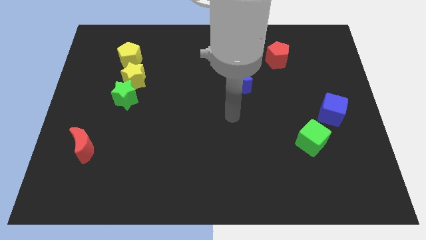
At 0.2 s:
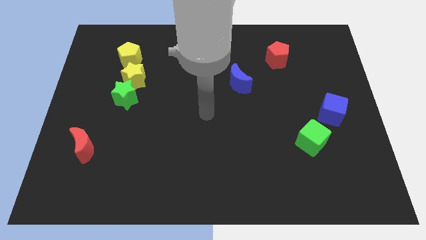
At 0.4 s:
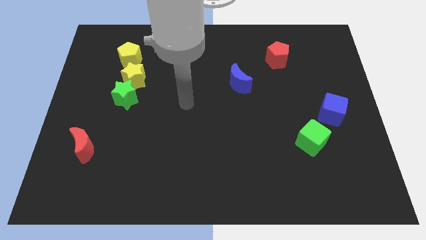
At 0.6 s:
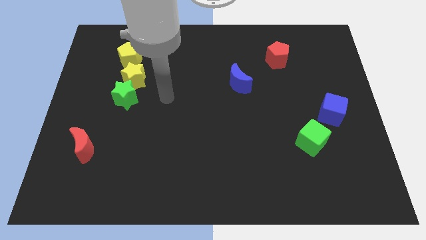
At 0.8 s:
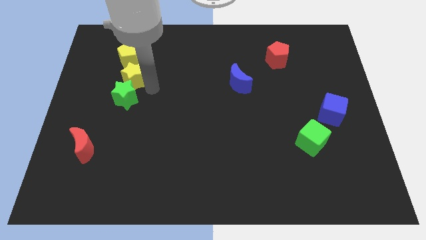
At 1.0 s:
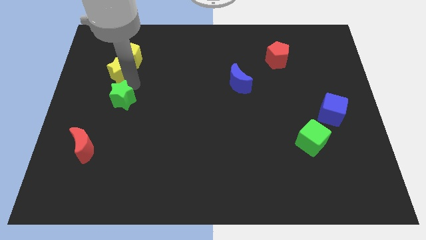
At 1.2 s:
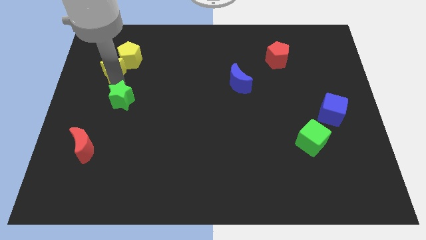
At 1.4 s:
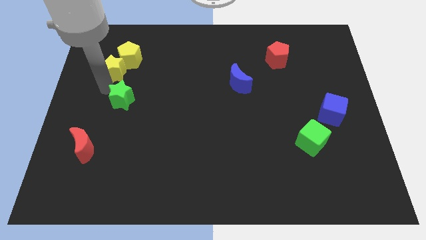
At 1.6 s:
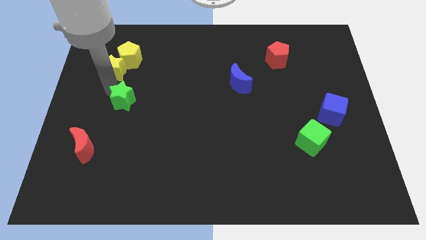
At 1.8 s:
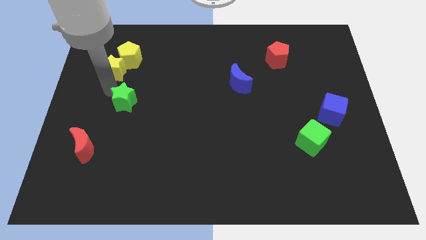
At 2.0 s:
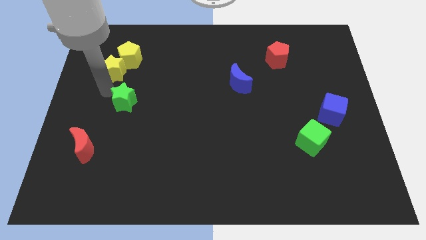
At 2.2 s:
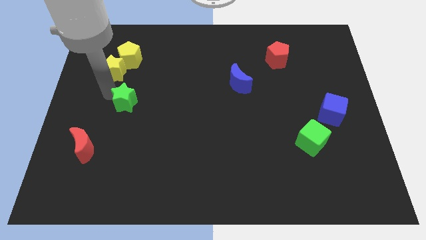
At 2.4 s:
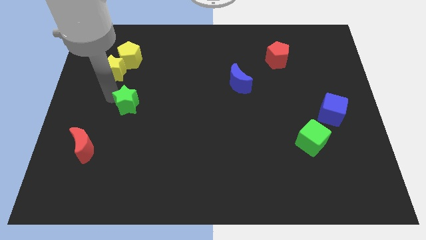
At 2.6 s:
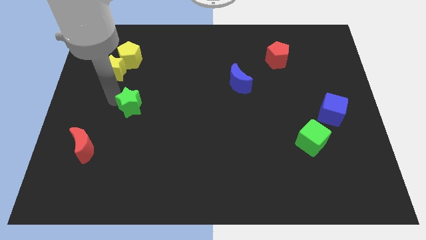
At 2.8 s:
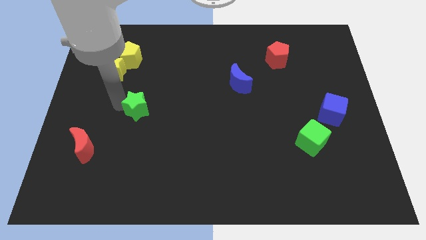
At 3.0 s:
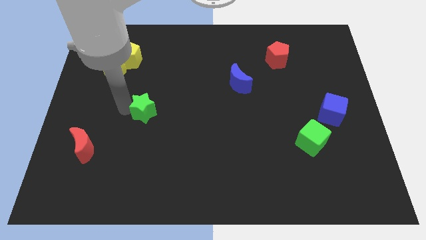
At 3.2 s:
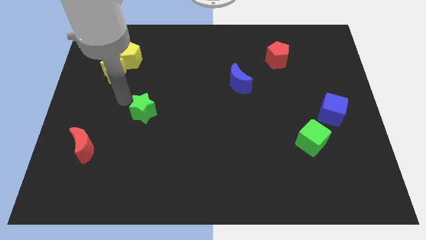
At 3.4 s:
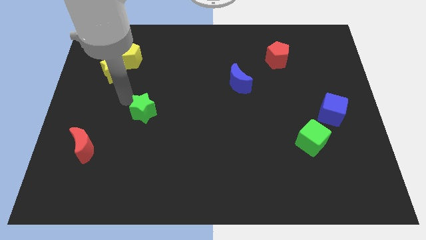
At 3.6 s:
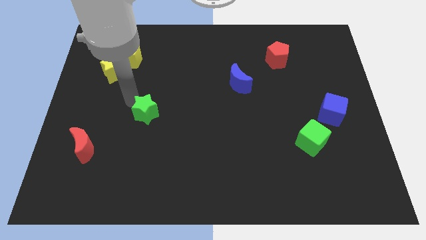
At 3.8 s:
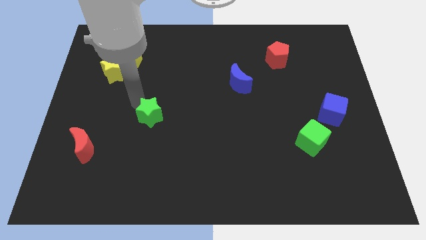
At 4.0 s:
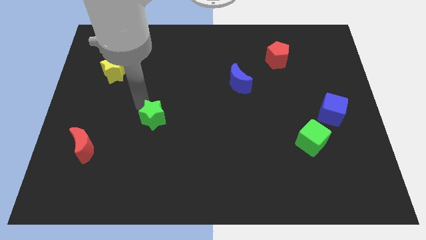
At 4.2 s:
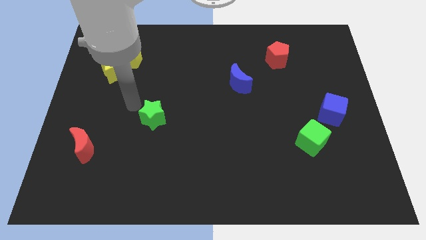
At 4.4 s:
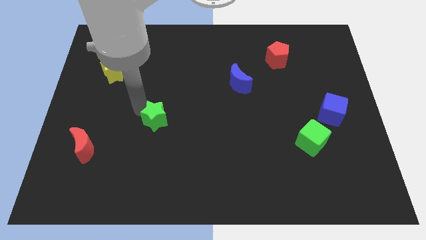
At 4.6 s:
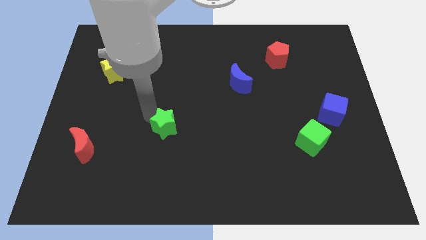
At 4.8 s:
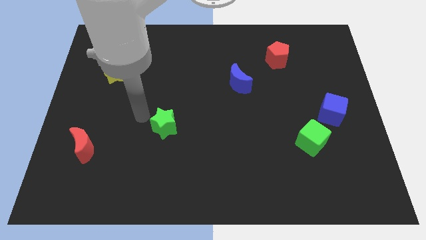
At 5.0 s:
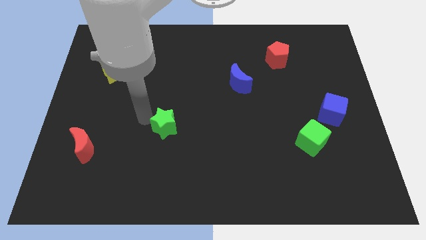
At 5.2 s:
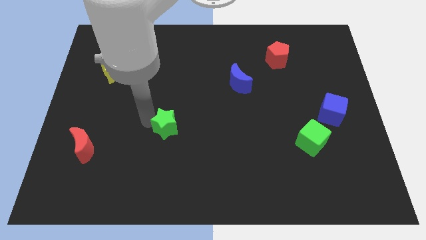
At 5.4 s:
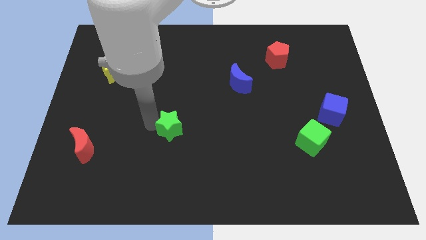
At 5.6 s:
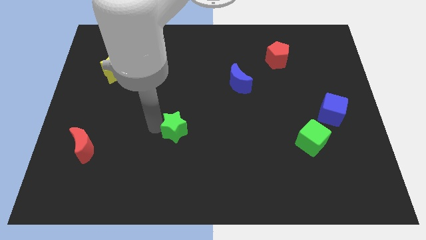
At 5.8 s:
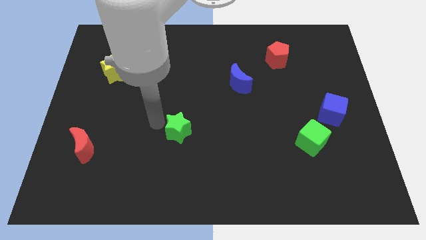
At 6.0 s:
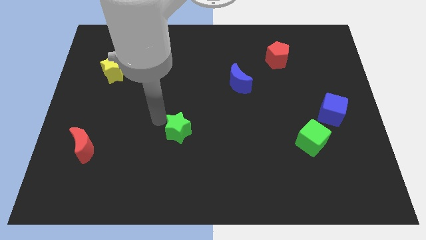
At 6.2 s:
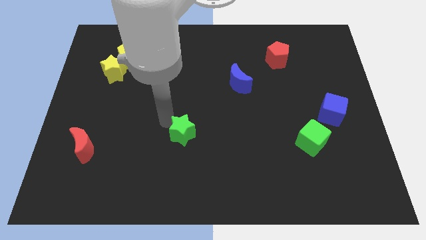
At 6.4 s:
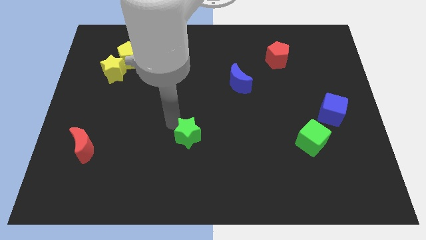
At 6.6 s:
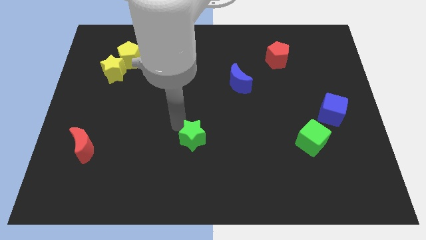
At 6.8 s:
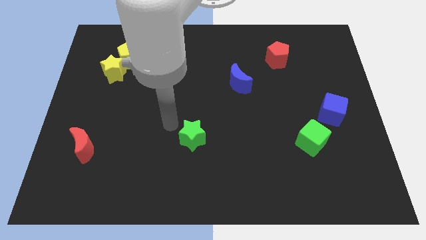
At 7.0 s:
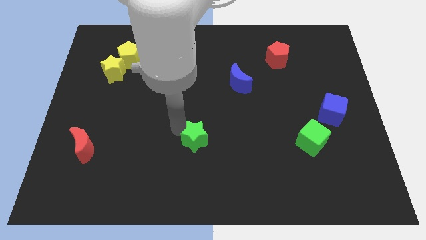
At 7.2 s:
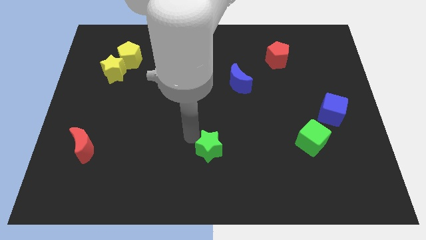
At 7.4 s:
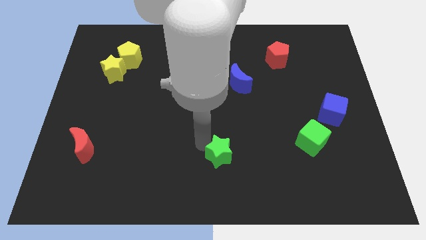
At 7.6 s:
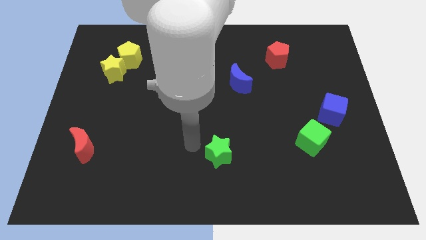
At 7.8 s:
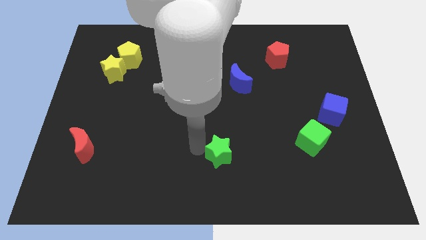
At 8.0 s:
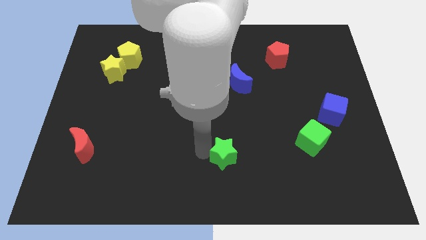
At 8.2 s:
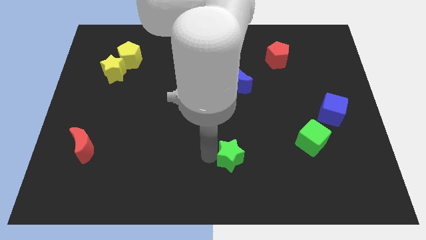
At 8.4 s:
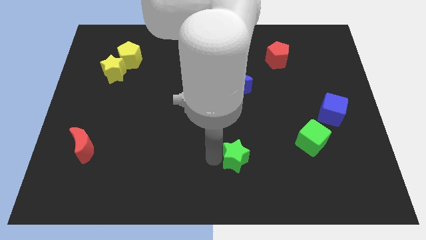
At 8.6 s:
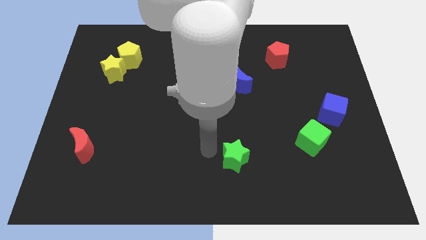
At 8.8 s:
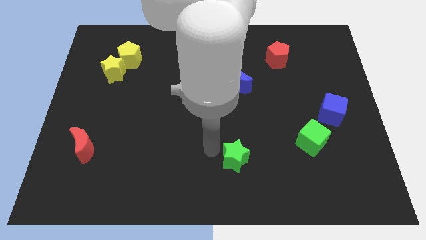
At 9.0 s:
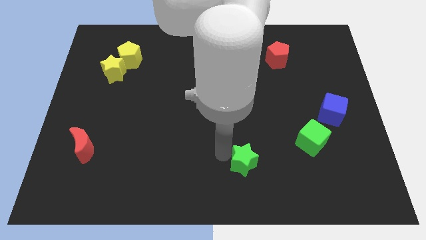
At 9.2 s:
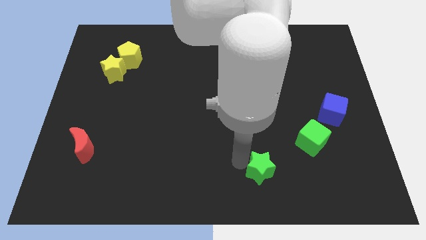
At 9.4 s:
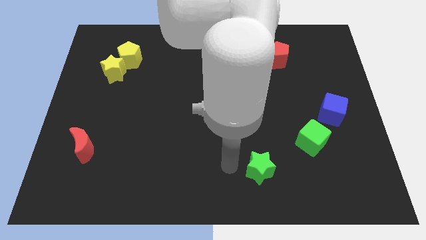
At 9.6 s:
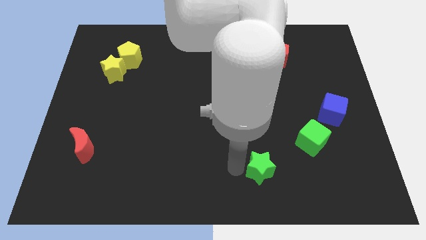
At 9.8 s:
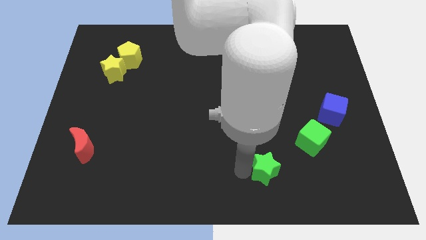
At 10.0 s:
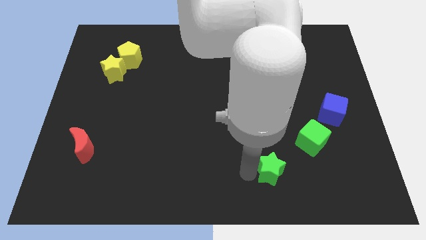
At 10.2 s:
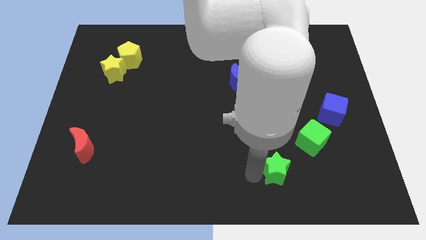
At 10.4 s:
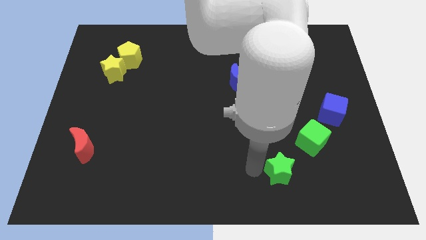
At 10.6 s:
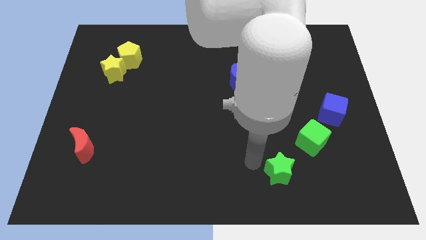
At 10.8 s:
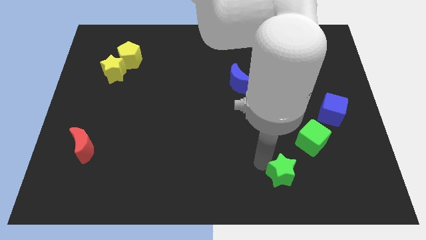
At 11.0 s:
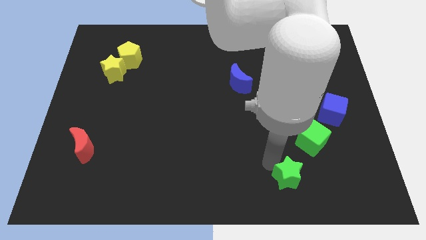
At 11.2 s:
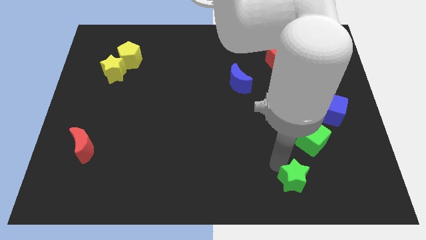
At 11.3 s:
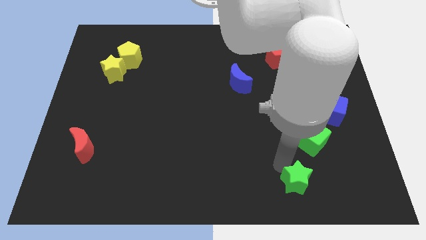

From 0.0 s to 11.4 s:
move the green star to the bottom of the green cube

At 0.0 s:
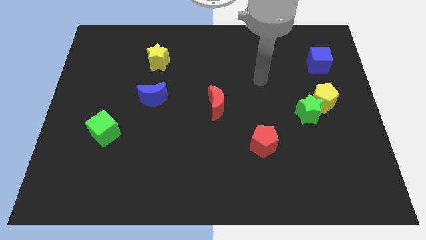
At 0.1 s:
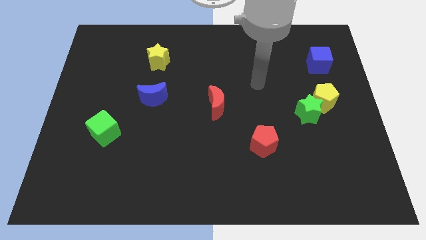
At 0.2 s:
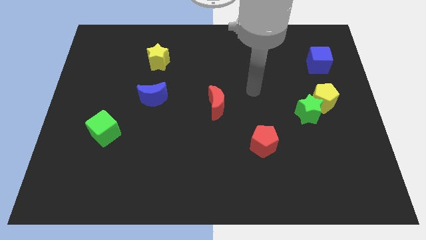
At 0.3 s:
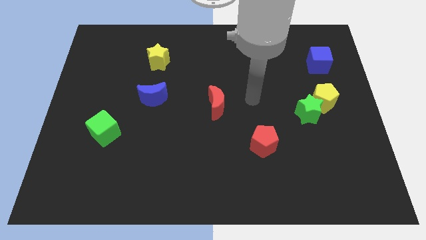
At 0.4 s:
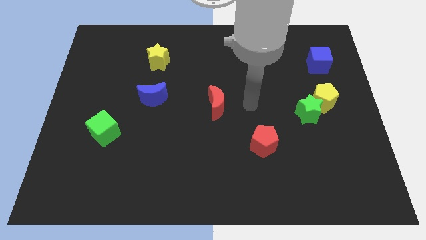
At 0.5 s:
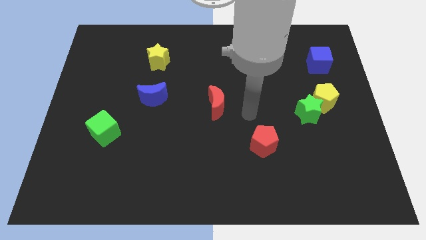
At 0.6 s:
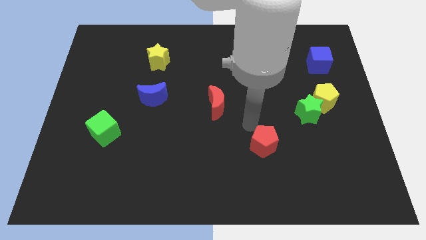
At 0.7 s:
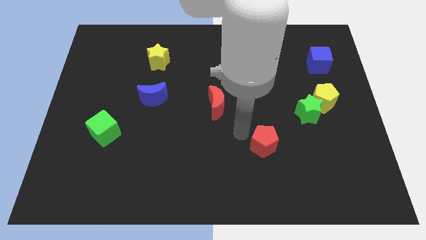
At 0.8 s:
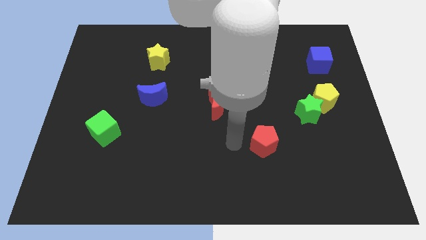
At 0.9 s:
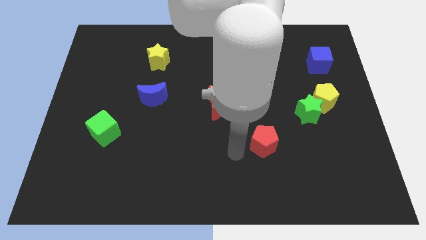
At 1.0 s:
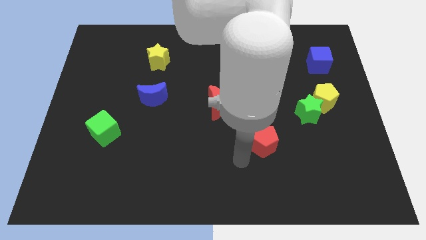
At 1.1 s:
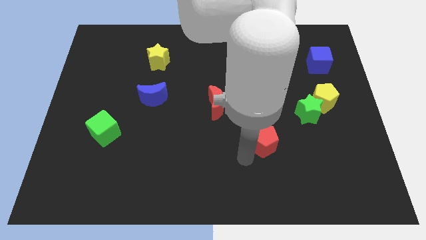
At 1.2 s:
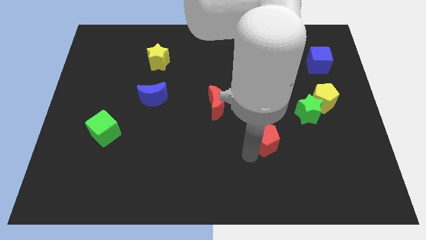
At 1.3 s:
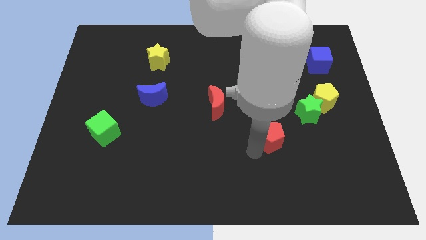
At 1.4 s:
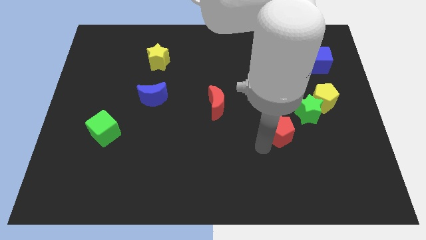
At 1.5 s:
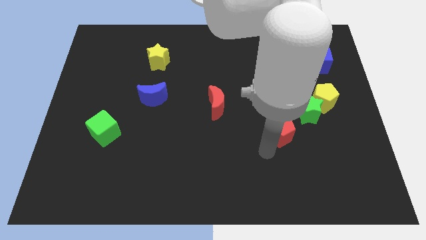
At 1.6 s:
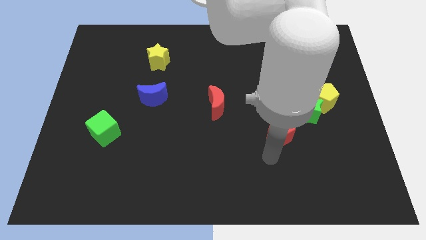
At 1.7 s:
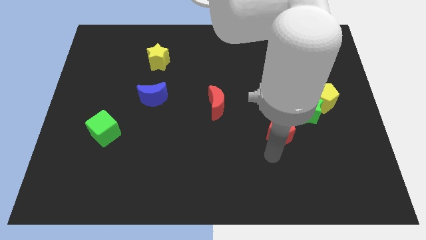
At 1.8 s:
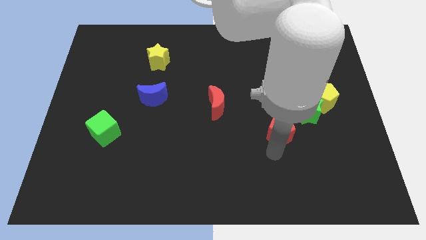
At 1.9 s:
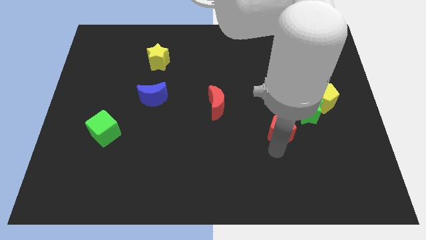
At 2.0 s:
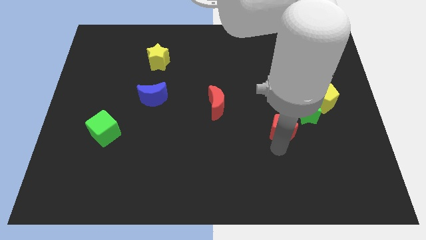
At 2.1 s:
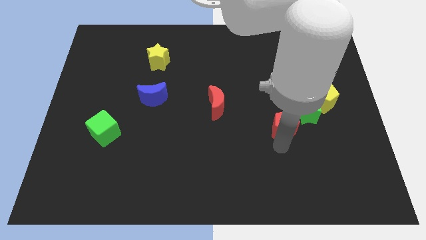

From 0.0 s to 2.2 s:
slide the red pentagon to the bottom left side of the yellow pentagon
